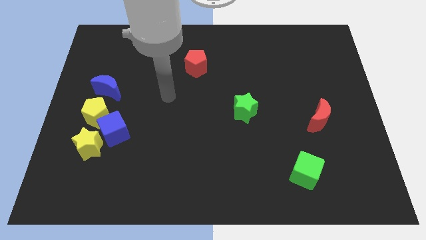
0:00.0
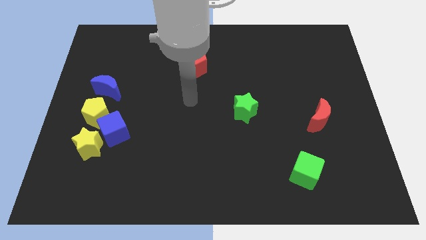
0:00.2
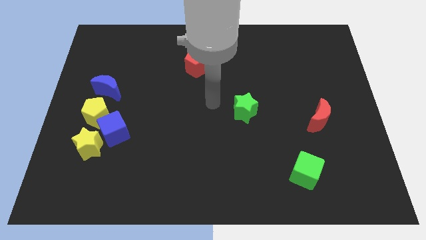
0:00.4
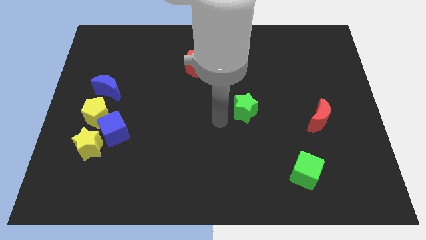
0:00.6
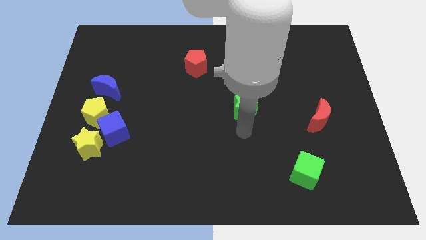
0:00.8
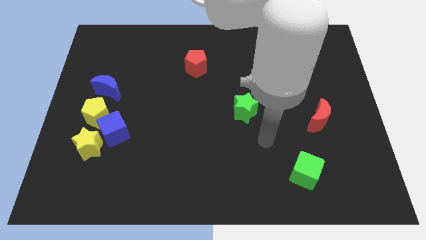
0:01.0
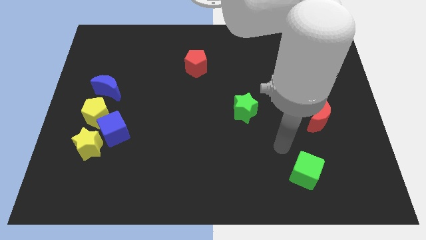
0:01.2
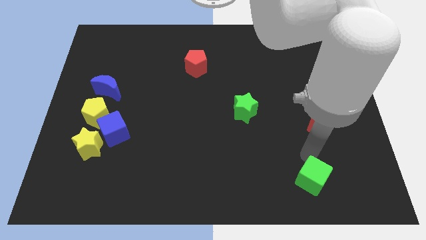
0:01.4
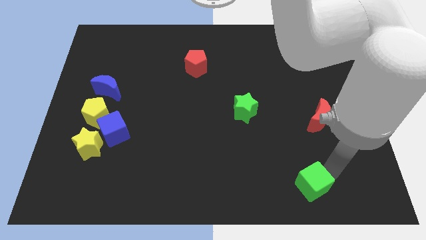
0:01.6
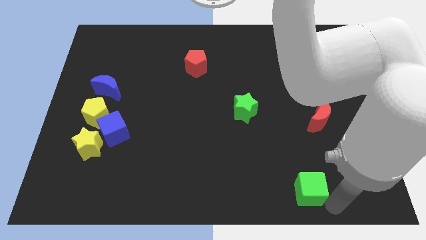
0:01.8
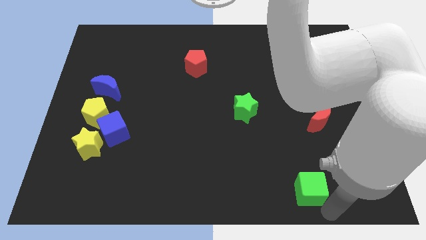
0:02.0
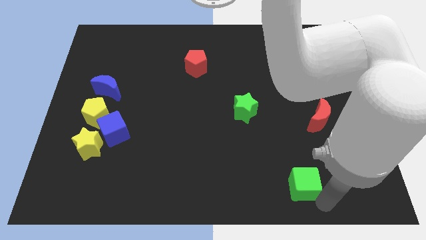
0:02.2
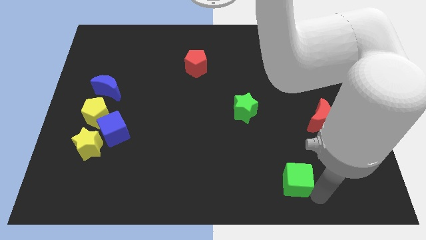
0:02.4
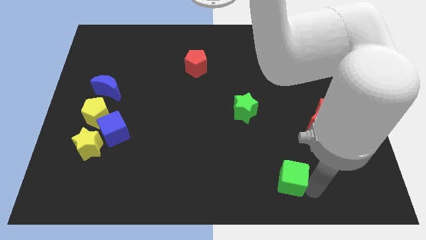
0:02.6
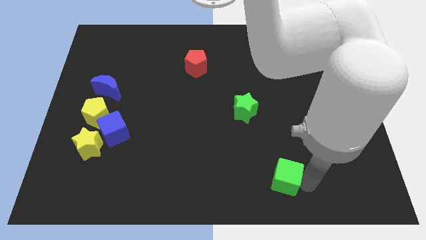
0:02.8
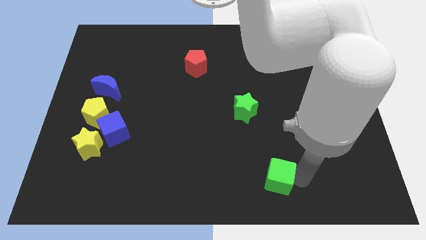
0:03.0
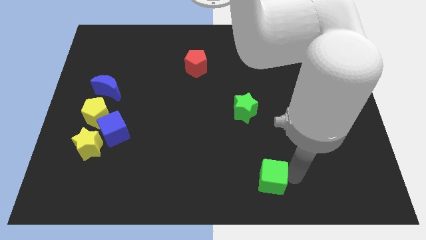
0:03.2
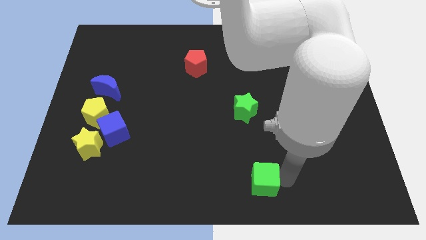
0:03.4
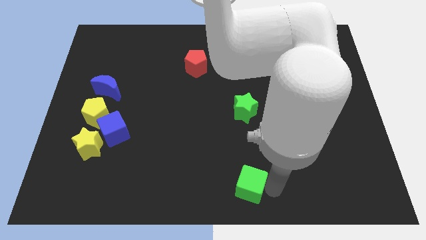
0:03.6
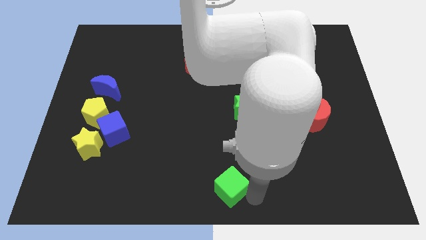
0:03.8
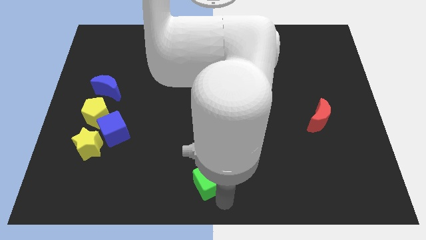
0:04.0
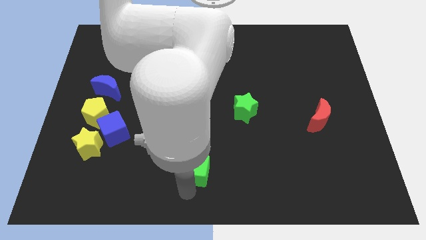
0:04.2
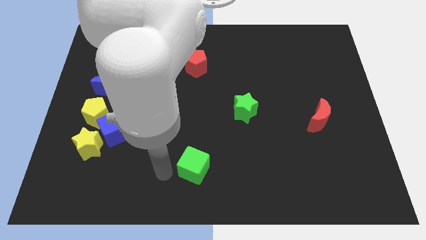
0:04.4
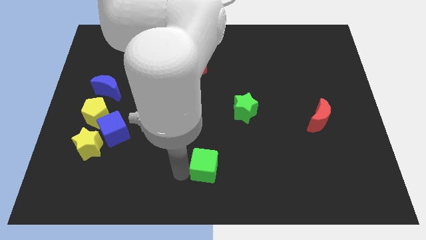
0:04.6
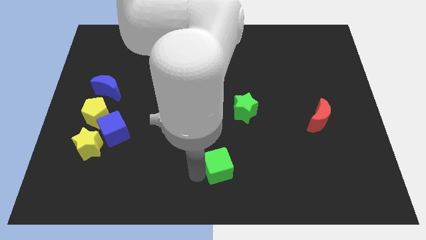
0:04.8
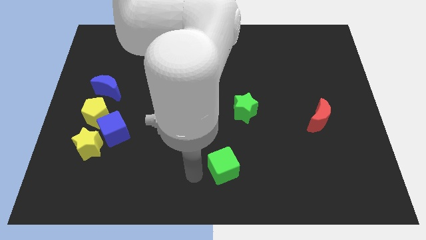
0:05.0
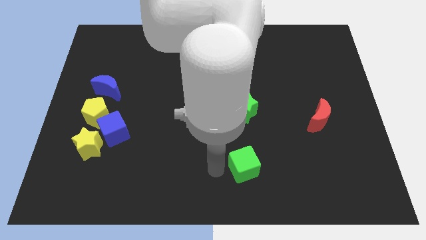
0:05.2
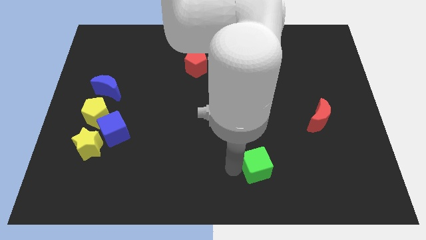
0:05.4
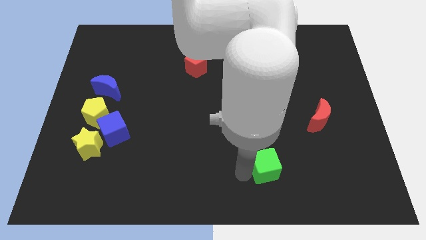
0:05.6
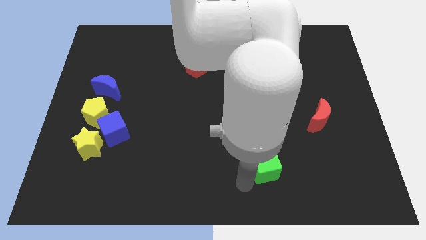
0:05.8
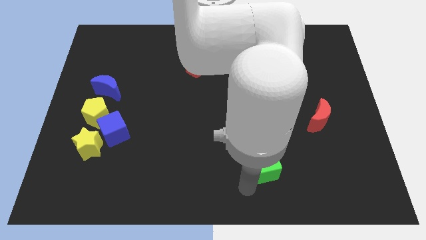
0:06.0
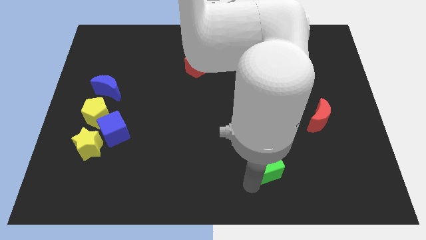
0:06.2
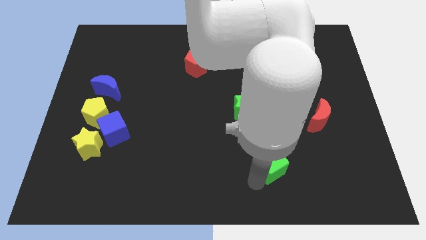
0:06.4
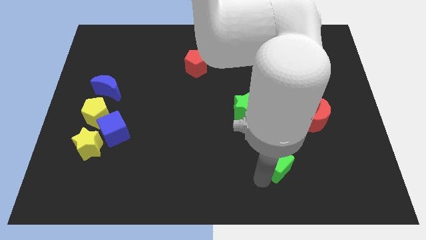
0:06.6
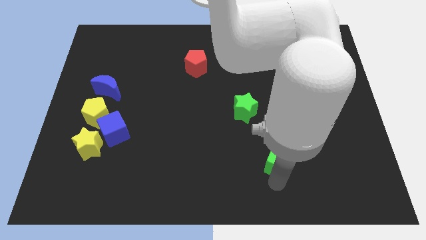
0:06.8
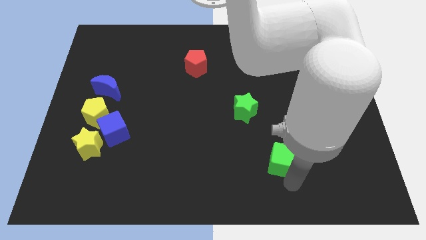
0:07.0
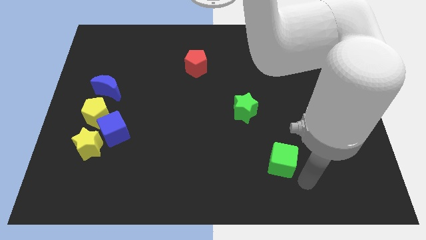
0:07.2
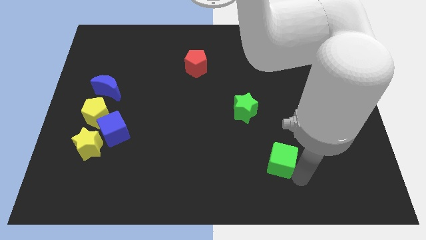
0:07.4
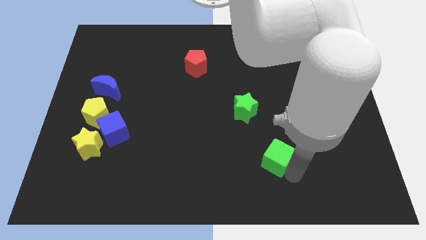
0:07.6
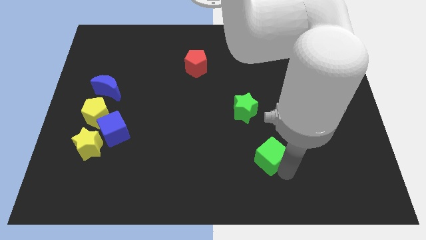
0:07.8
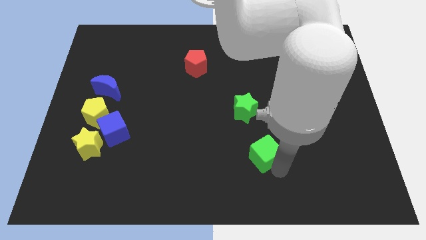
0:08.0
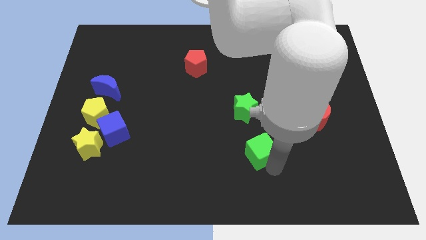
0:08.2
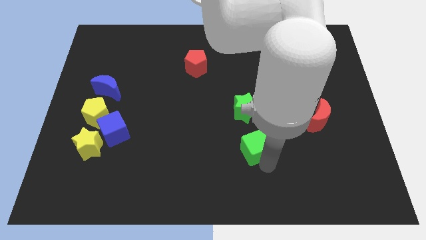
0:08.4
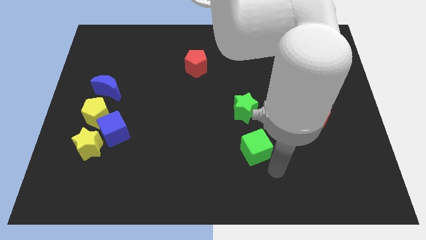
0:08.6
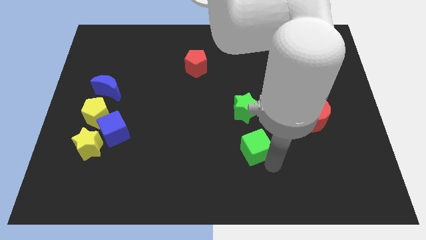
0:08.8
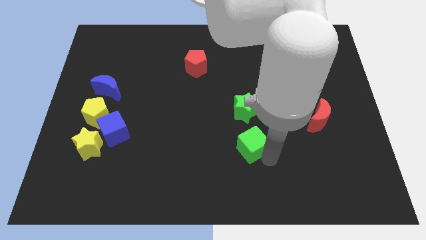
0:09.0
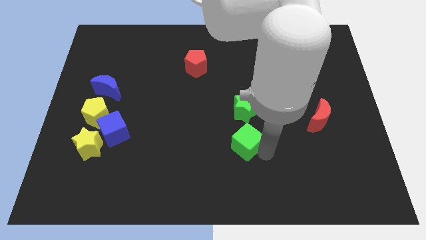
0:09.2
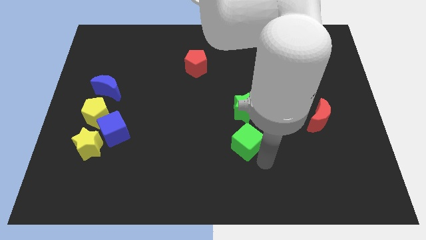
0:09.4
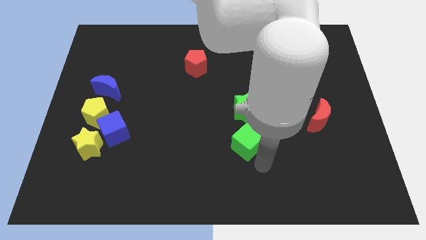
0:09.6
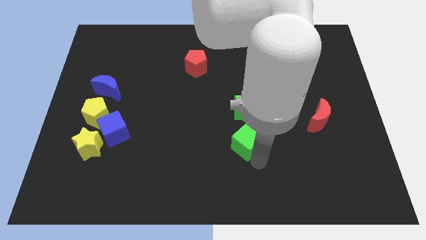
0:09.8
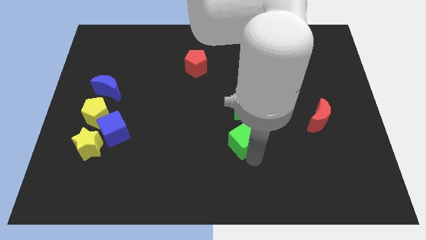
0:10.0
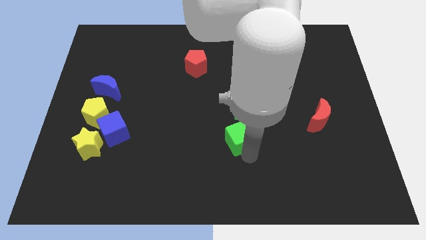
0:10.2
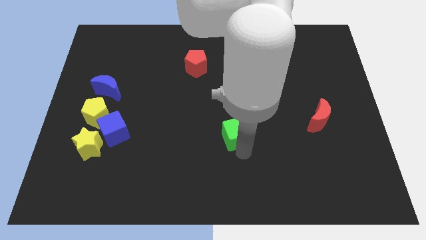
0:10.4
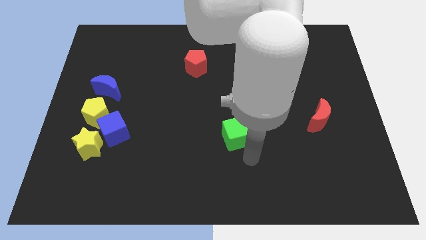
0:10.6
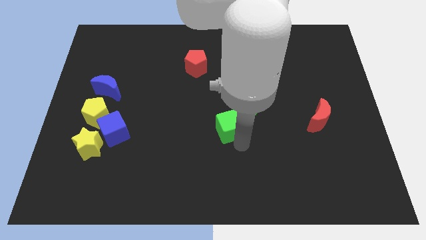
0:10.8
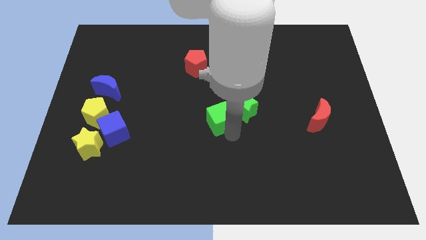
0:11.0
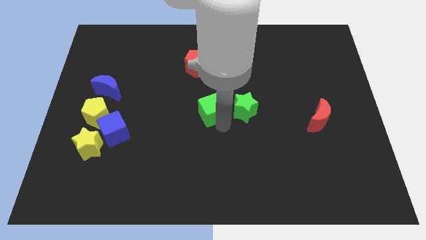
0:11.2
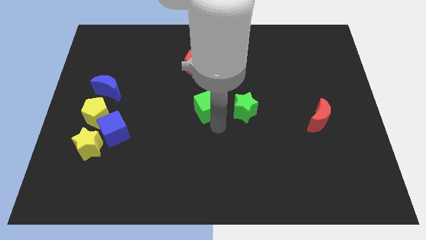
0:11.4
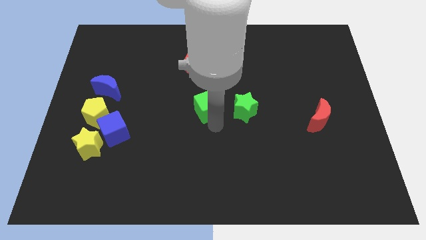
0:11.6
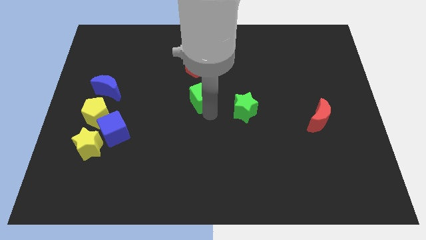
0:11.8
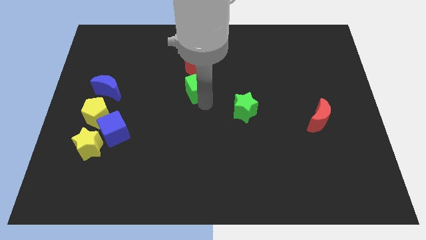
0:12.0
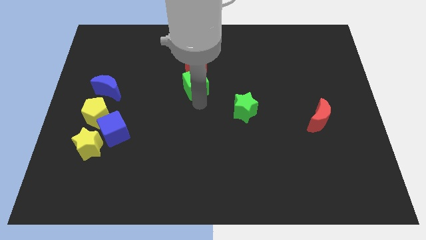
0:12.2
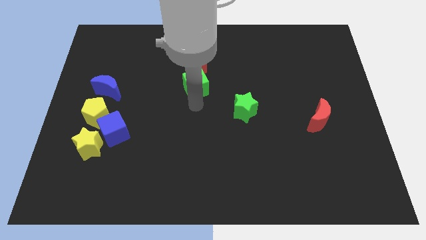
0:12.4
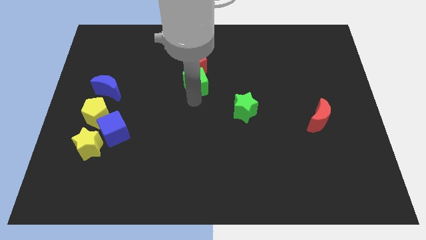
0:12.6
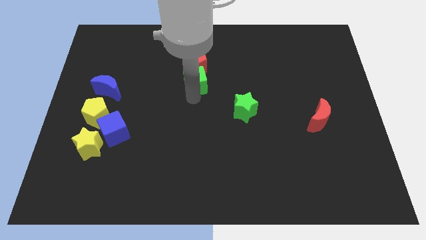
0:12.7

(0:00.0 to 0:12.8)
push the green cube to the red pentagon

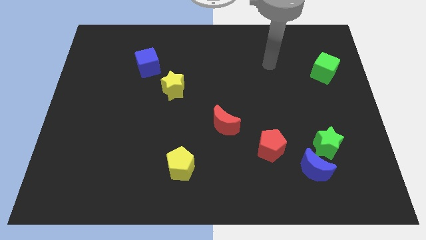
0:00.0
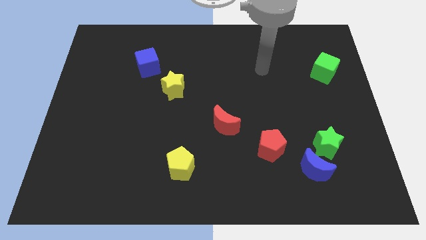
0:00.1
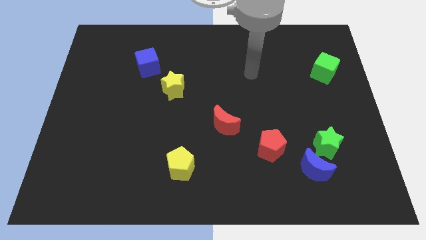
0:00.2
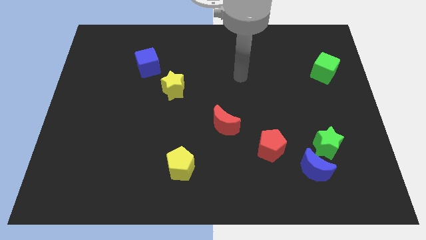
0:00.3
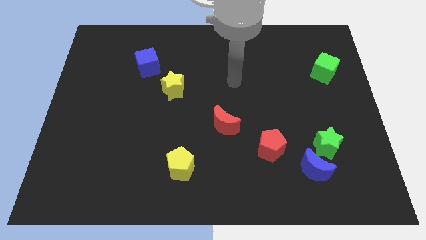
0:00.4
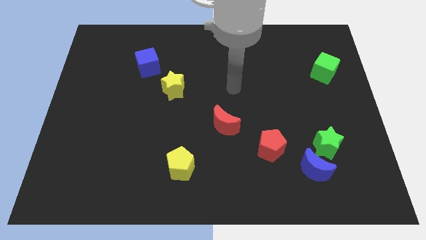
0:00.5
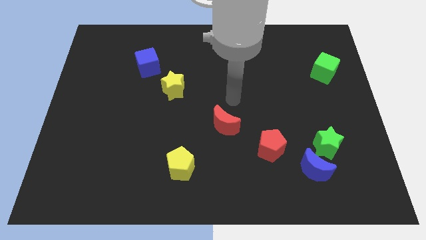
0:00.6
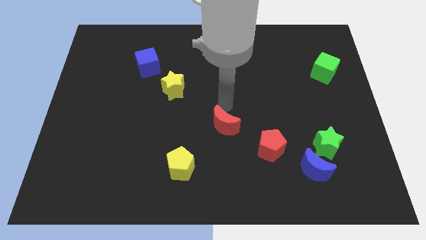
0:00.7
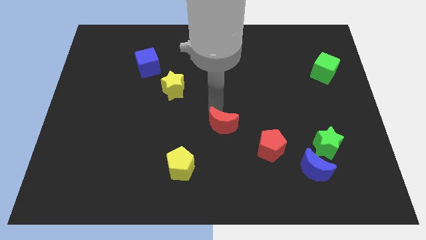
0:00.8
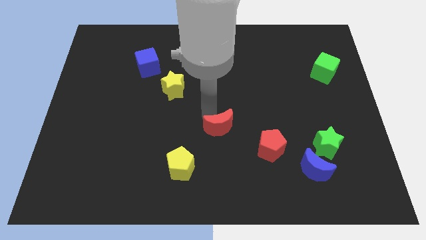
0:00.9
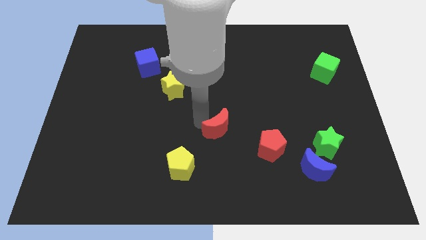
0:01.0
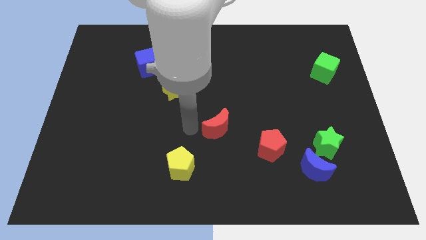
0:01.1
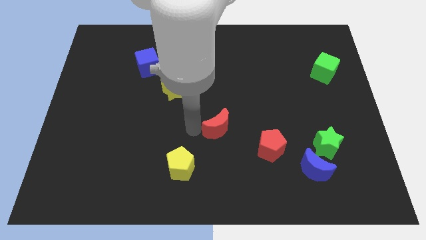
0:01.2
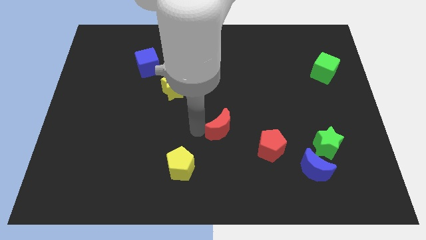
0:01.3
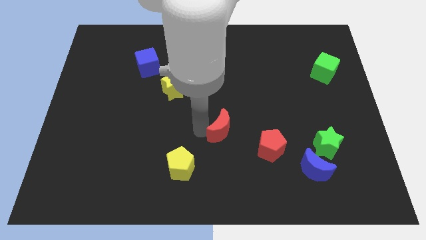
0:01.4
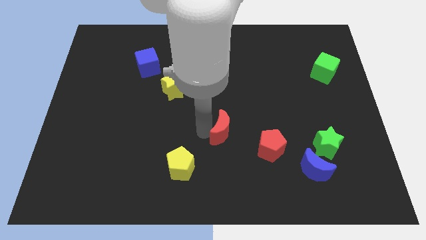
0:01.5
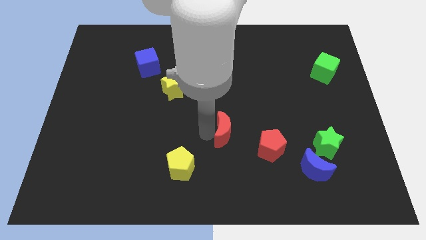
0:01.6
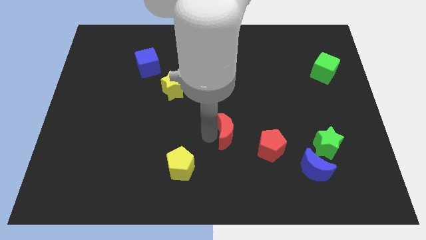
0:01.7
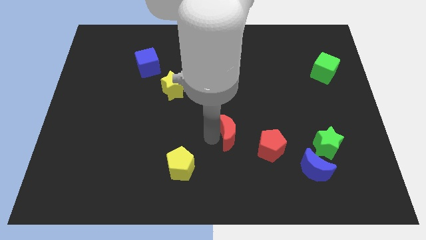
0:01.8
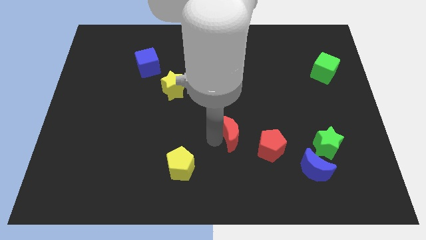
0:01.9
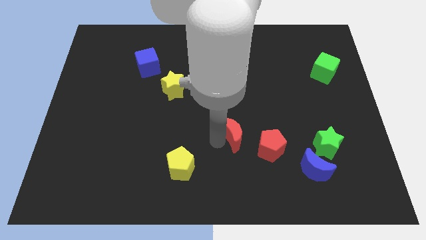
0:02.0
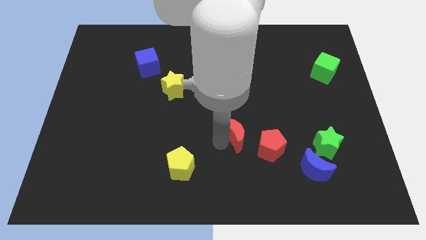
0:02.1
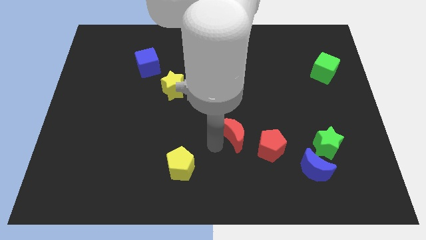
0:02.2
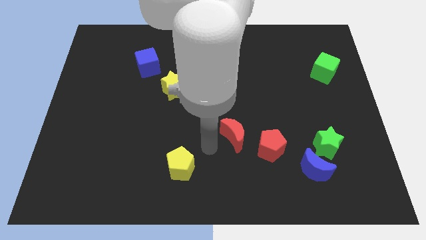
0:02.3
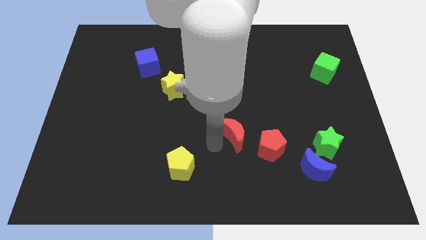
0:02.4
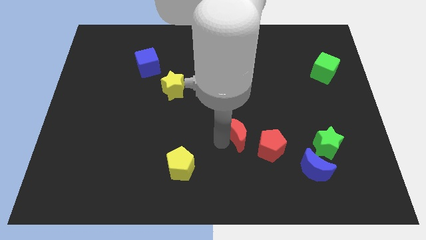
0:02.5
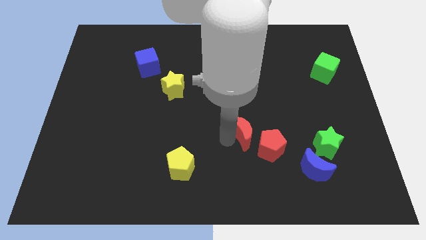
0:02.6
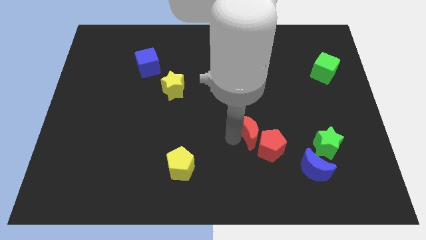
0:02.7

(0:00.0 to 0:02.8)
push the red moon towards the red pentagon
